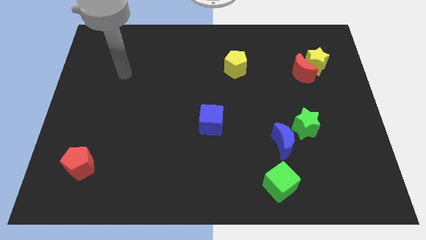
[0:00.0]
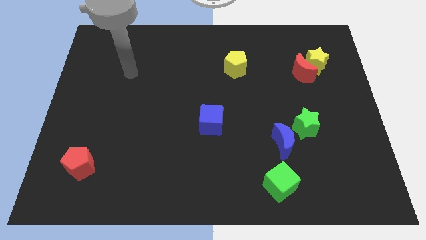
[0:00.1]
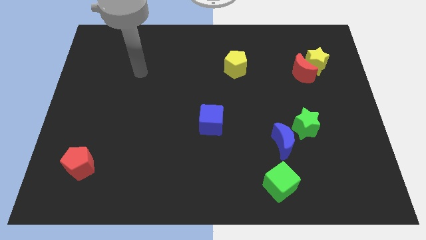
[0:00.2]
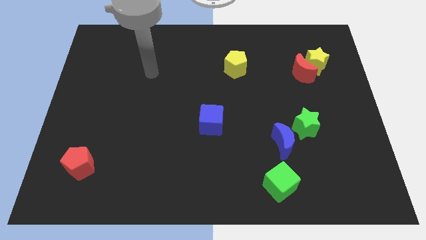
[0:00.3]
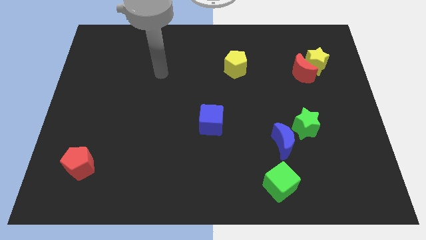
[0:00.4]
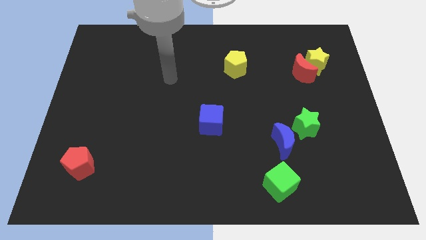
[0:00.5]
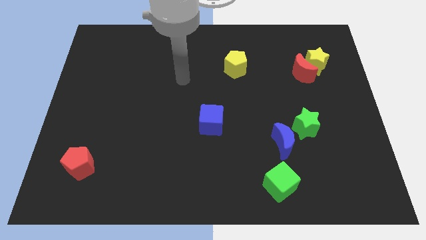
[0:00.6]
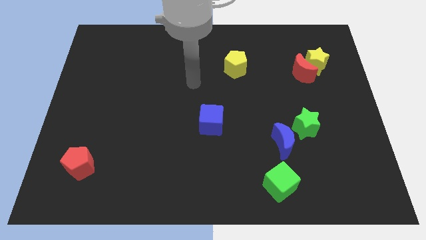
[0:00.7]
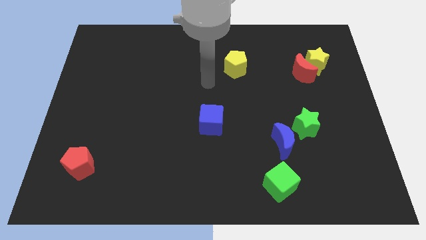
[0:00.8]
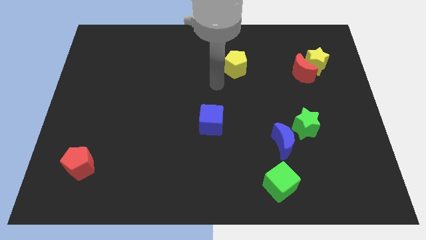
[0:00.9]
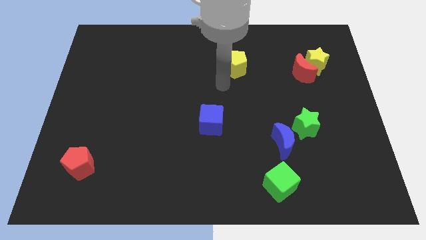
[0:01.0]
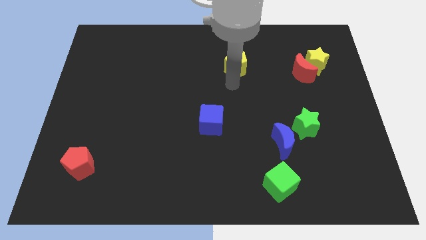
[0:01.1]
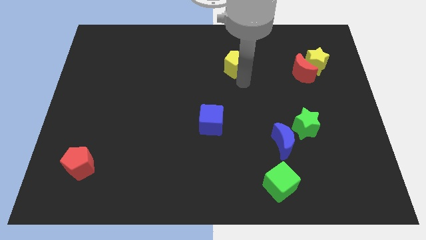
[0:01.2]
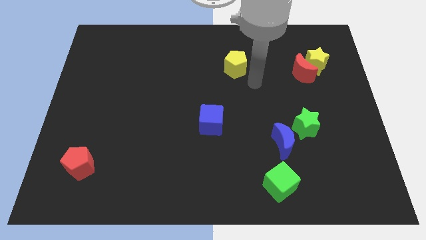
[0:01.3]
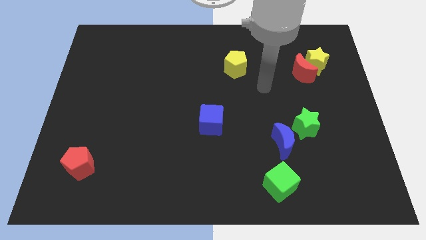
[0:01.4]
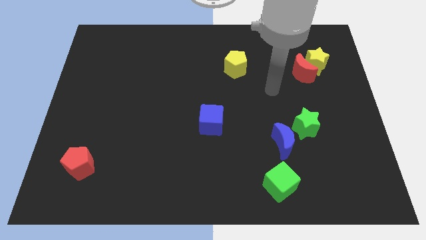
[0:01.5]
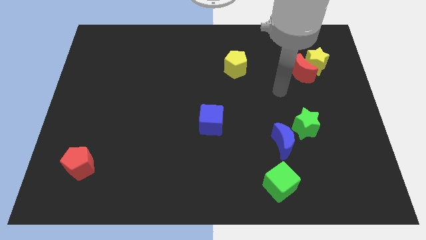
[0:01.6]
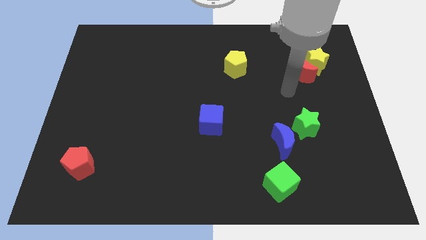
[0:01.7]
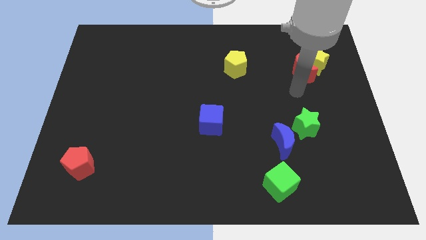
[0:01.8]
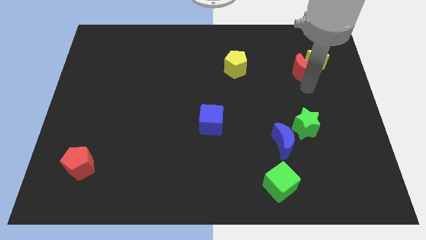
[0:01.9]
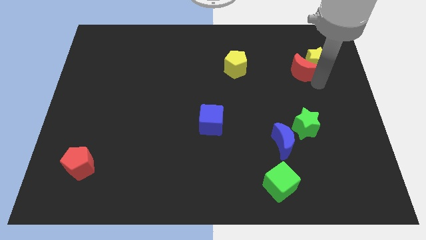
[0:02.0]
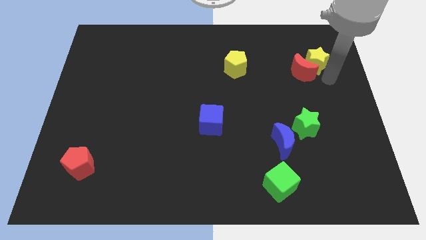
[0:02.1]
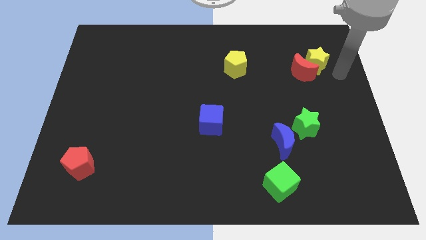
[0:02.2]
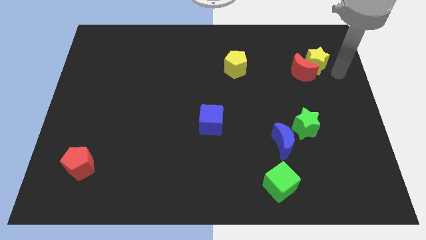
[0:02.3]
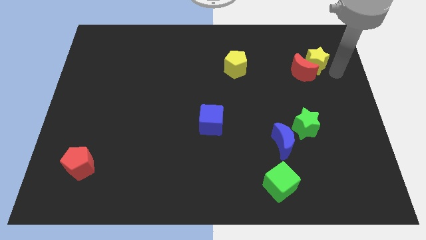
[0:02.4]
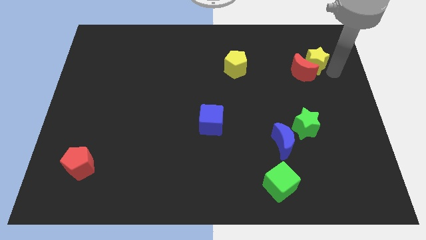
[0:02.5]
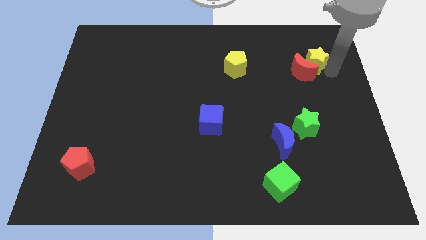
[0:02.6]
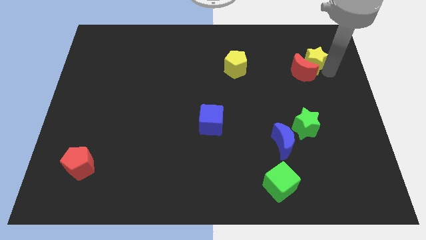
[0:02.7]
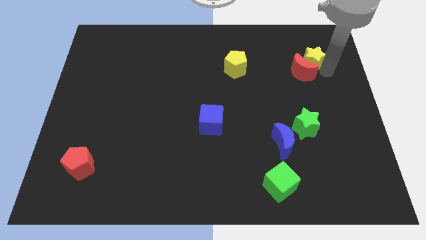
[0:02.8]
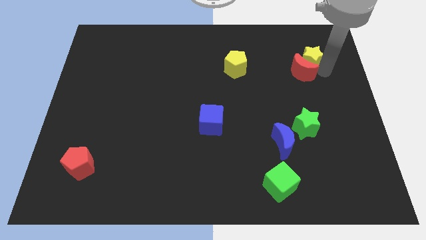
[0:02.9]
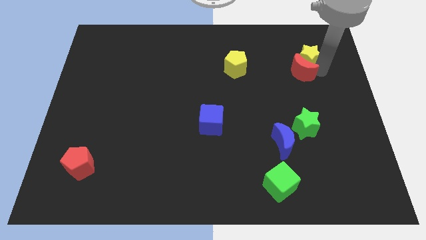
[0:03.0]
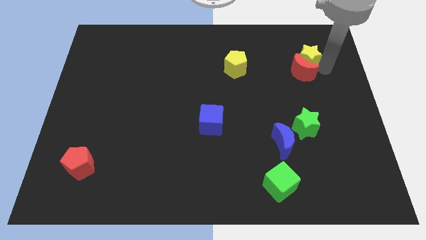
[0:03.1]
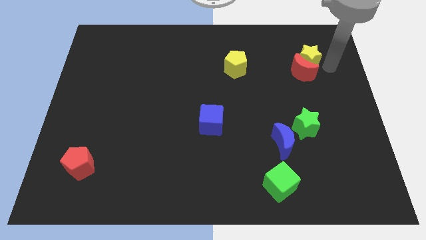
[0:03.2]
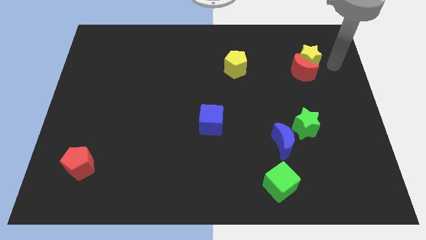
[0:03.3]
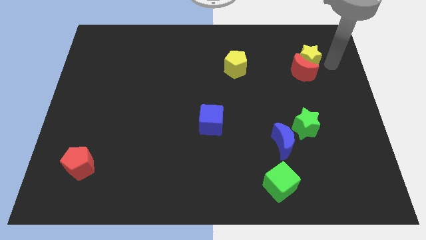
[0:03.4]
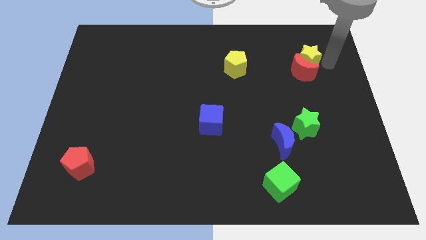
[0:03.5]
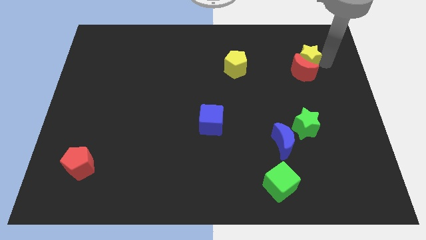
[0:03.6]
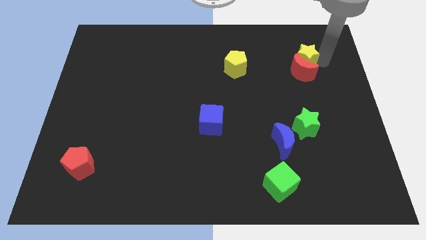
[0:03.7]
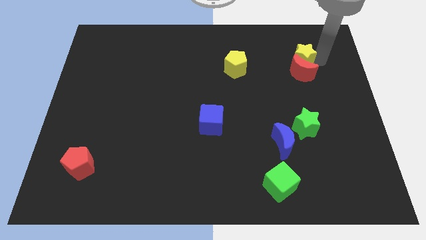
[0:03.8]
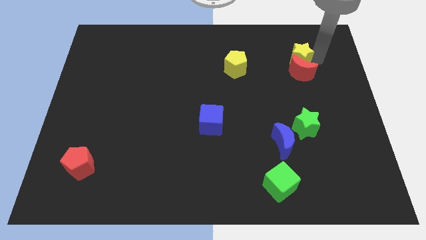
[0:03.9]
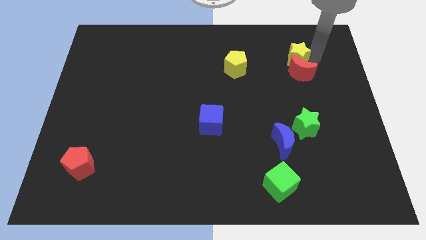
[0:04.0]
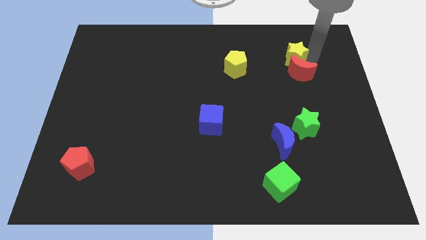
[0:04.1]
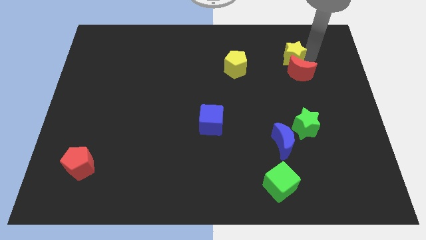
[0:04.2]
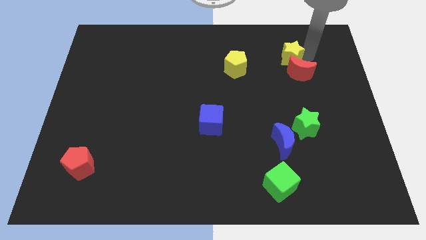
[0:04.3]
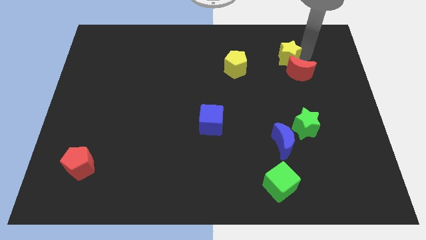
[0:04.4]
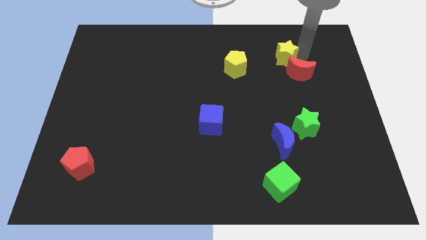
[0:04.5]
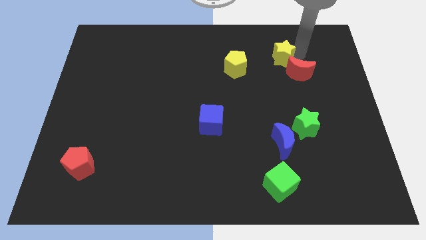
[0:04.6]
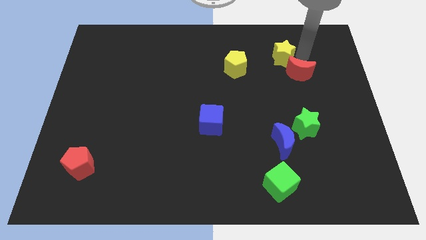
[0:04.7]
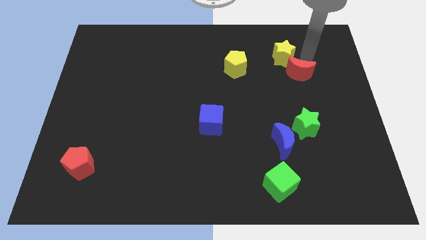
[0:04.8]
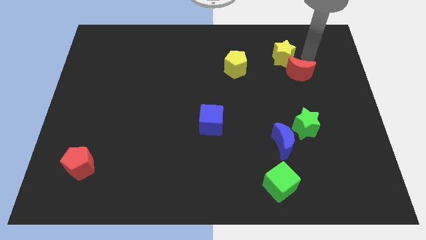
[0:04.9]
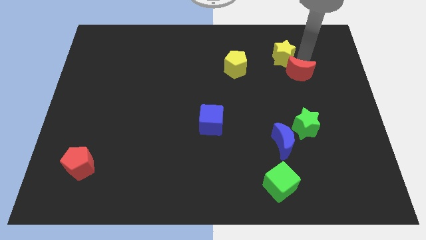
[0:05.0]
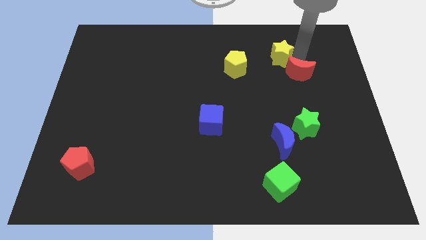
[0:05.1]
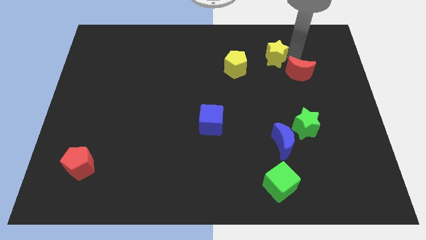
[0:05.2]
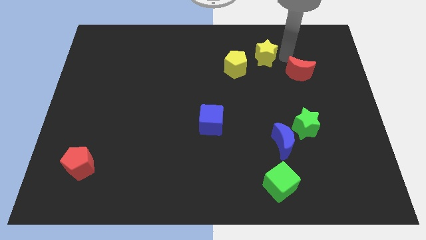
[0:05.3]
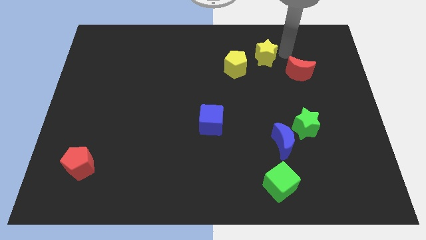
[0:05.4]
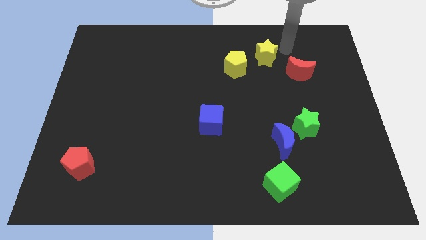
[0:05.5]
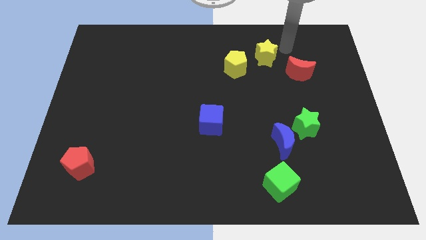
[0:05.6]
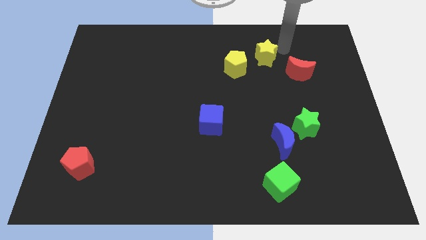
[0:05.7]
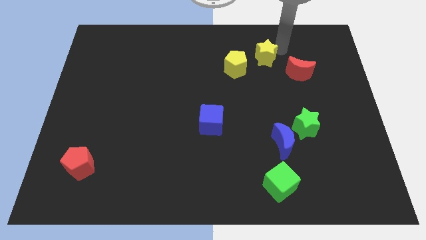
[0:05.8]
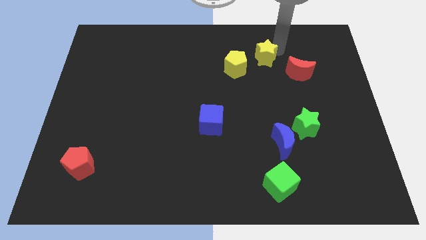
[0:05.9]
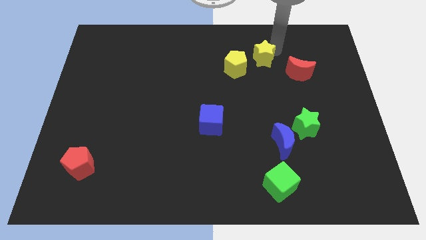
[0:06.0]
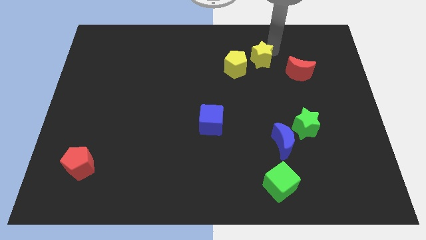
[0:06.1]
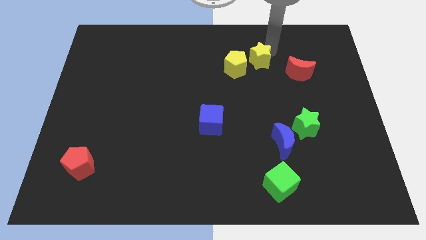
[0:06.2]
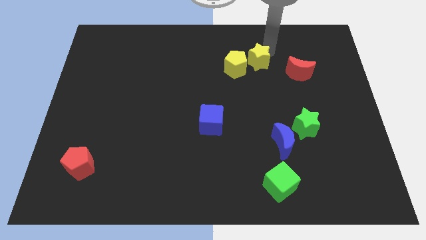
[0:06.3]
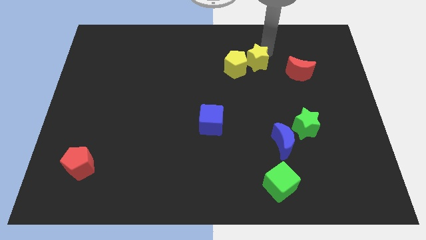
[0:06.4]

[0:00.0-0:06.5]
move the yellow star close to the yellow pentagon

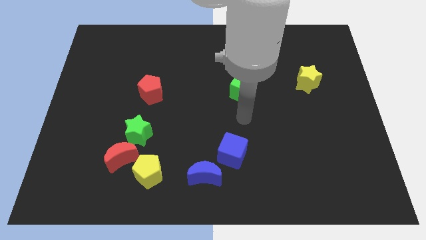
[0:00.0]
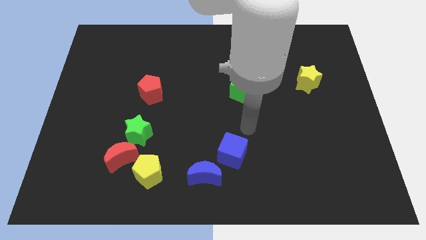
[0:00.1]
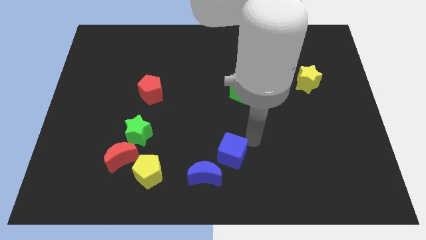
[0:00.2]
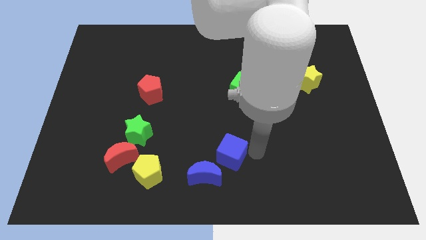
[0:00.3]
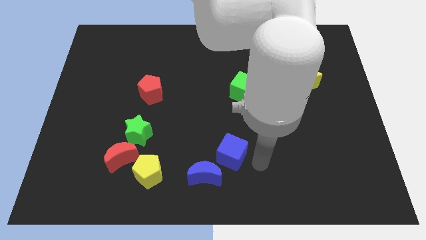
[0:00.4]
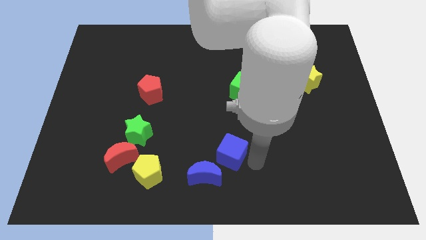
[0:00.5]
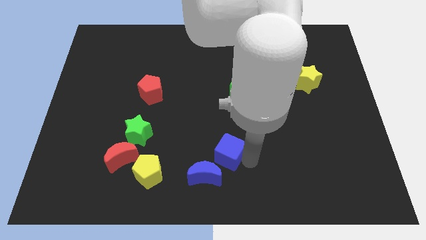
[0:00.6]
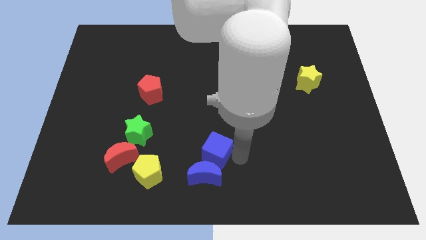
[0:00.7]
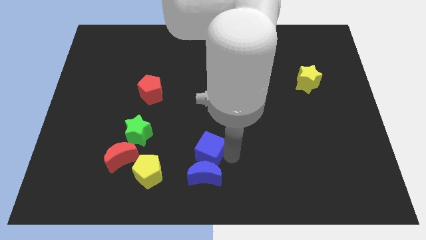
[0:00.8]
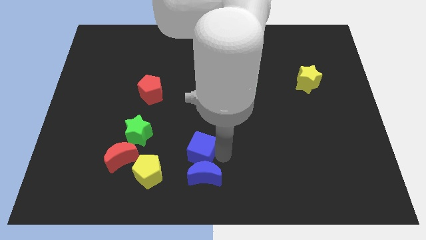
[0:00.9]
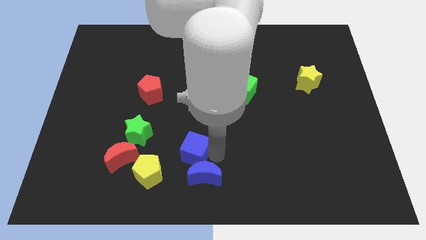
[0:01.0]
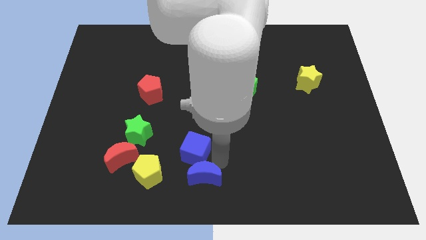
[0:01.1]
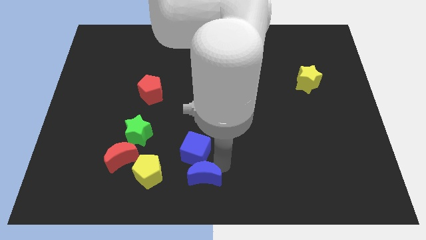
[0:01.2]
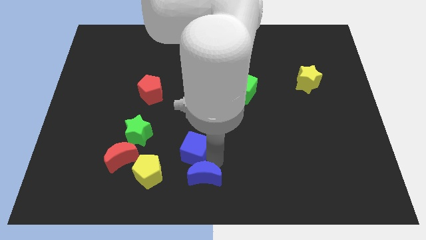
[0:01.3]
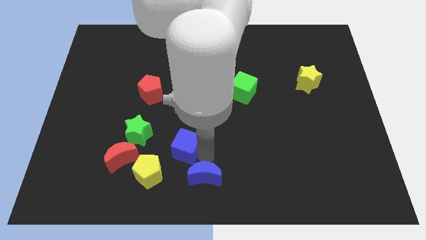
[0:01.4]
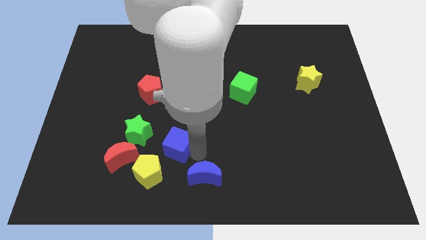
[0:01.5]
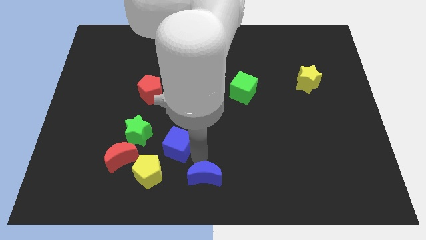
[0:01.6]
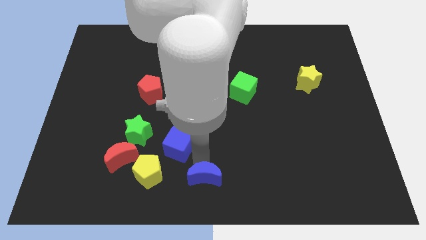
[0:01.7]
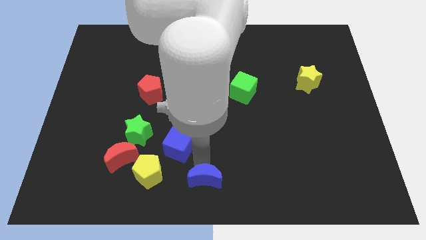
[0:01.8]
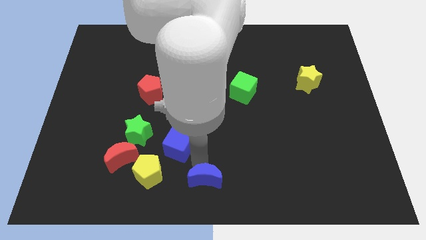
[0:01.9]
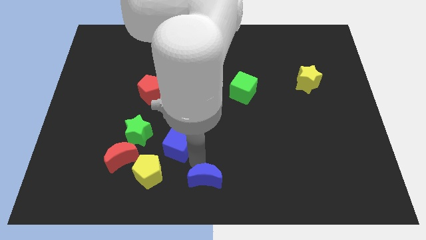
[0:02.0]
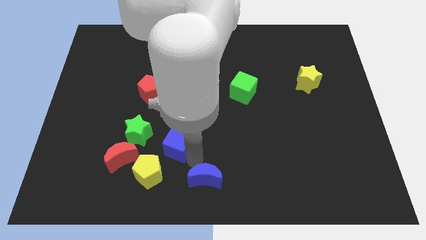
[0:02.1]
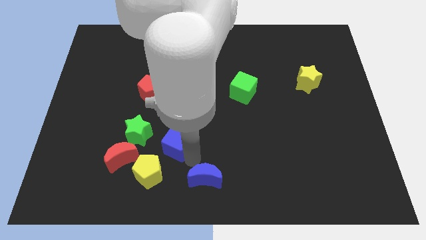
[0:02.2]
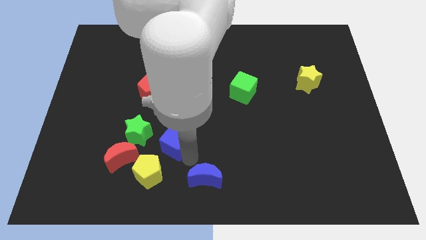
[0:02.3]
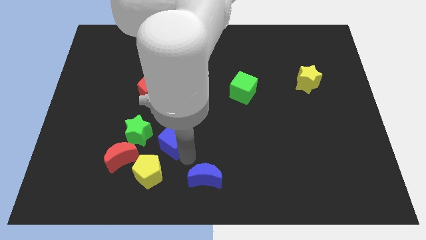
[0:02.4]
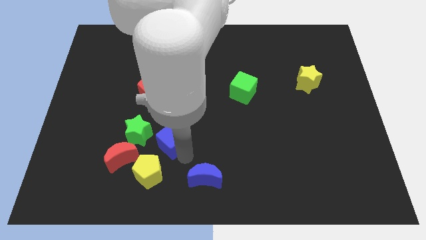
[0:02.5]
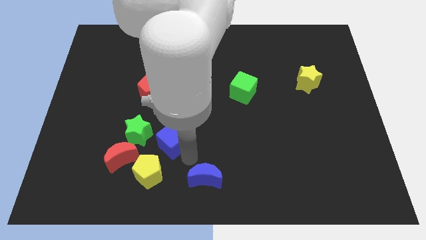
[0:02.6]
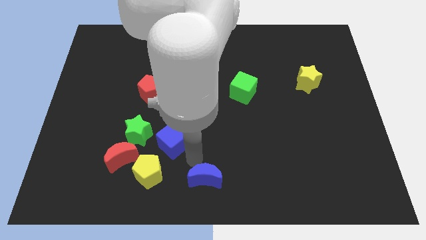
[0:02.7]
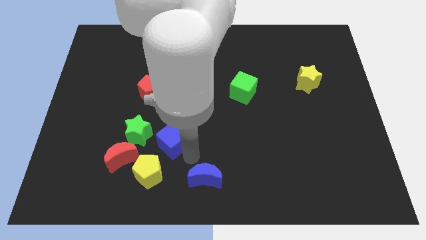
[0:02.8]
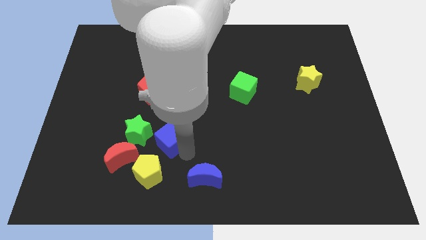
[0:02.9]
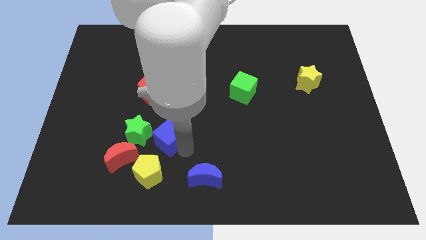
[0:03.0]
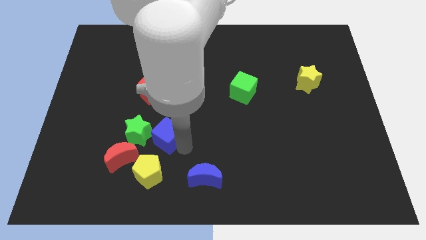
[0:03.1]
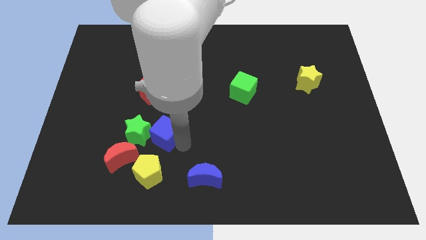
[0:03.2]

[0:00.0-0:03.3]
put the blue cube to the green star
